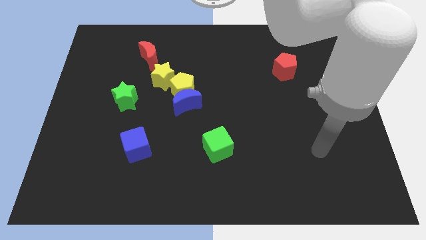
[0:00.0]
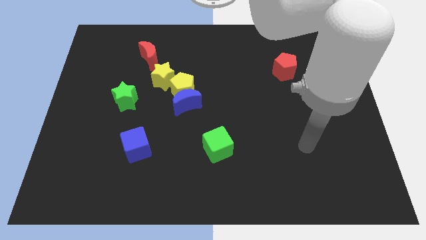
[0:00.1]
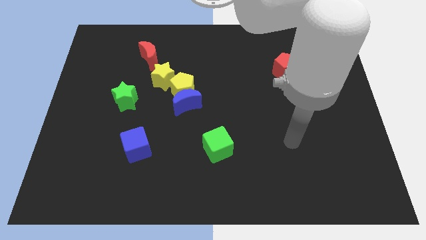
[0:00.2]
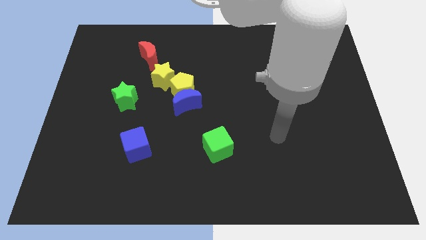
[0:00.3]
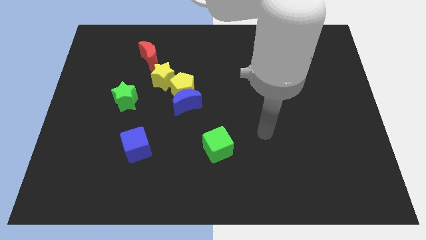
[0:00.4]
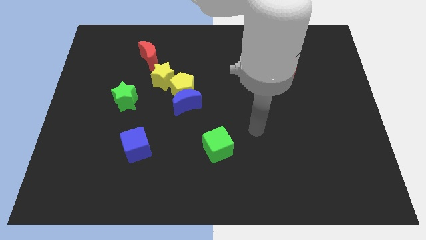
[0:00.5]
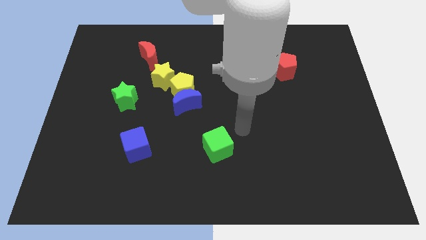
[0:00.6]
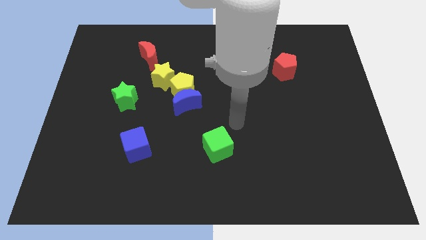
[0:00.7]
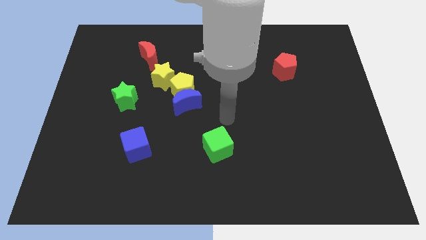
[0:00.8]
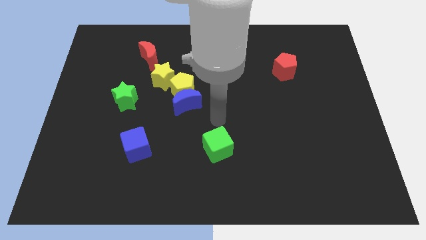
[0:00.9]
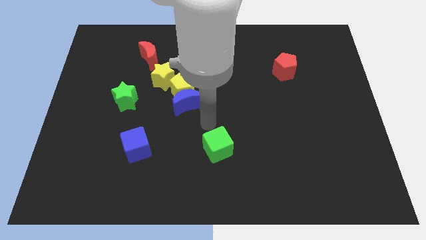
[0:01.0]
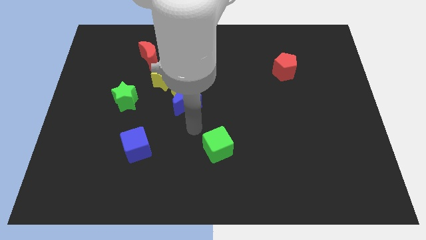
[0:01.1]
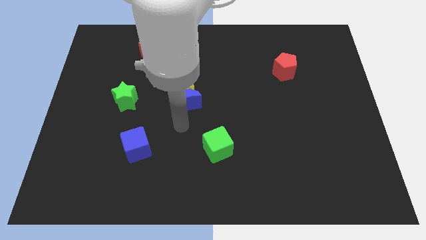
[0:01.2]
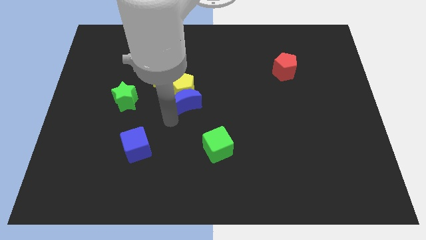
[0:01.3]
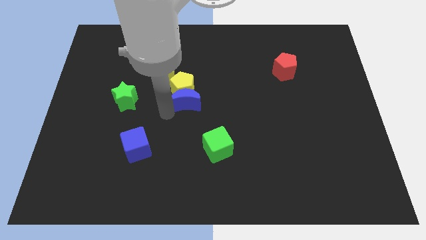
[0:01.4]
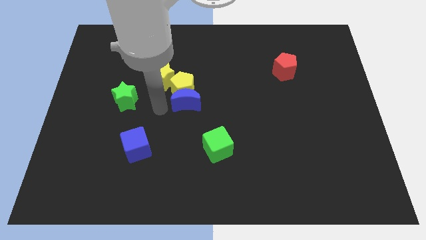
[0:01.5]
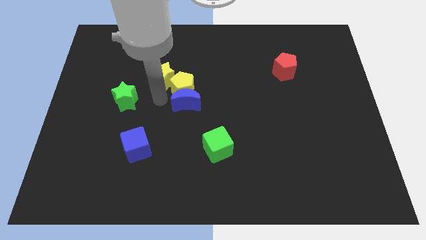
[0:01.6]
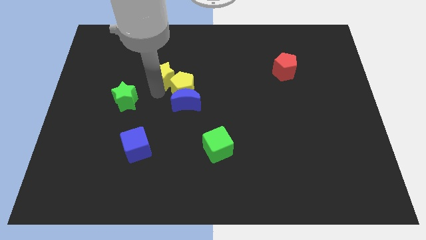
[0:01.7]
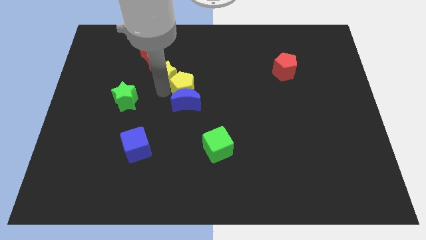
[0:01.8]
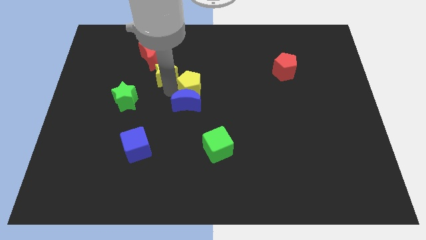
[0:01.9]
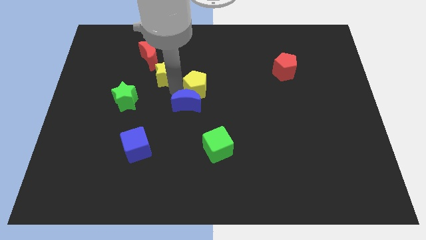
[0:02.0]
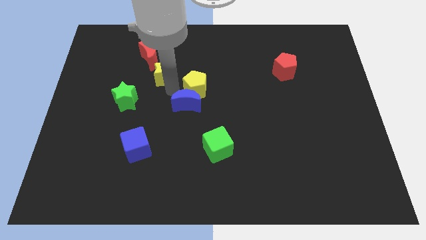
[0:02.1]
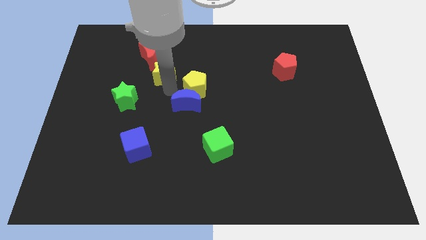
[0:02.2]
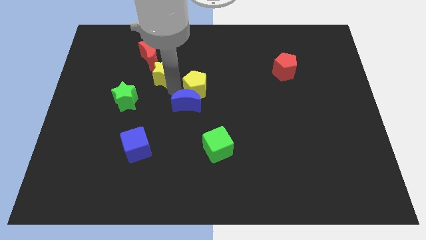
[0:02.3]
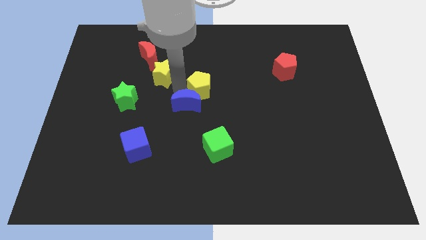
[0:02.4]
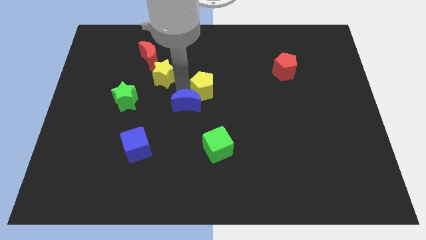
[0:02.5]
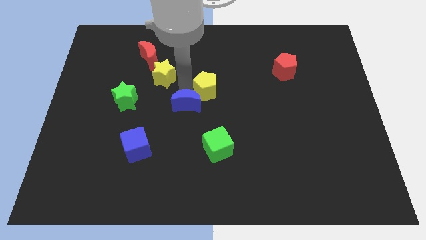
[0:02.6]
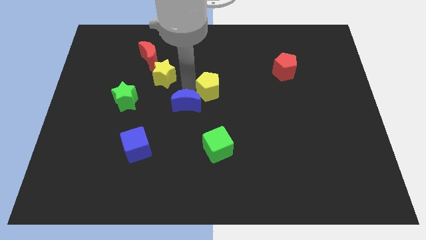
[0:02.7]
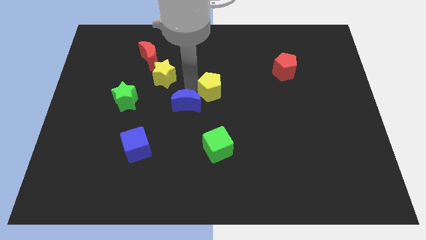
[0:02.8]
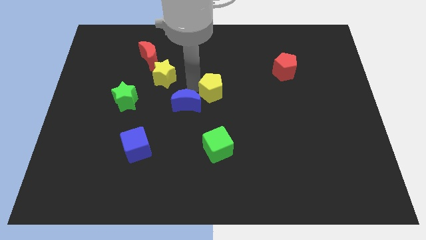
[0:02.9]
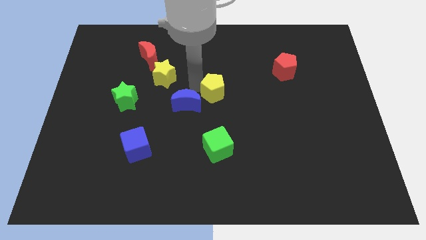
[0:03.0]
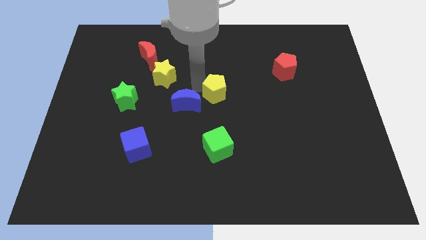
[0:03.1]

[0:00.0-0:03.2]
separate the yellow pentagon from the blue moon and yellow star

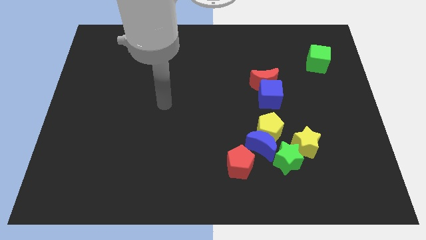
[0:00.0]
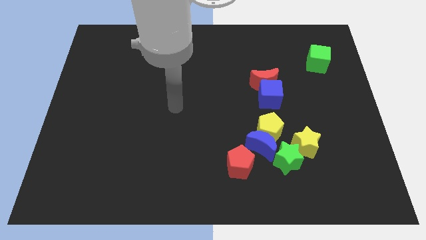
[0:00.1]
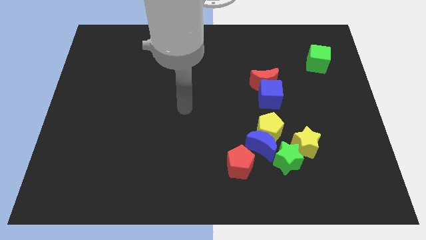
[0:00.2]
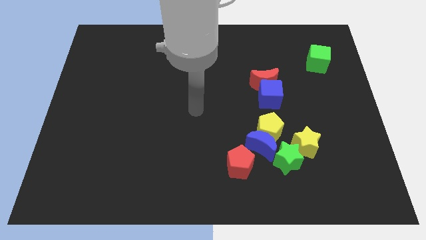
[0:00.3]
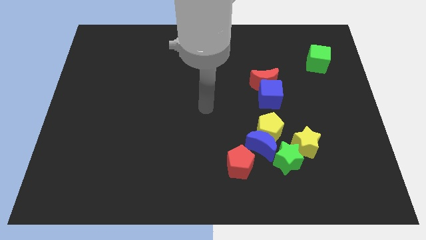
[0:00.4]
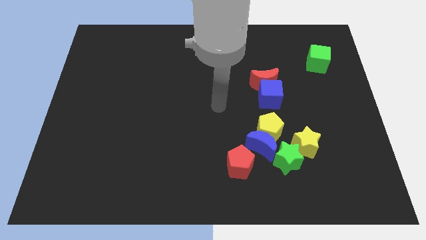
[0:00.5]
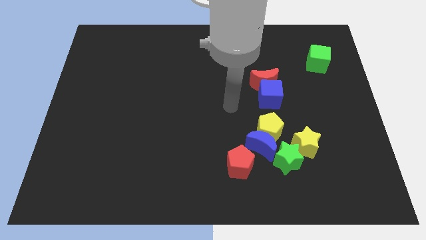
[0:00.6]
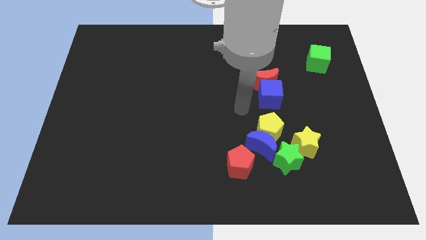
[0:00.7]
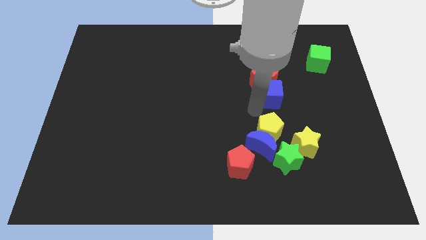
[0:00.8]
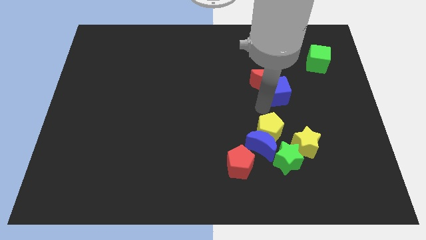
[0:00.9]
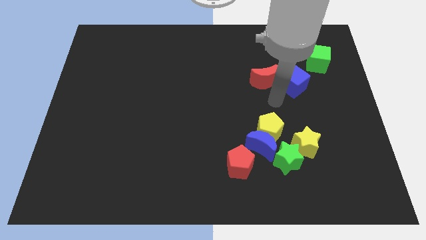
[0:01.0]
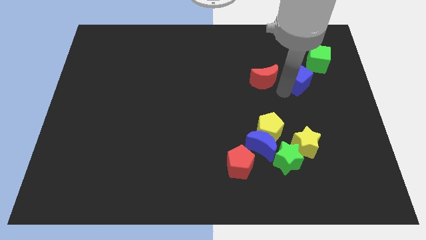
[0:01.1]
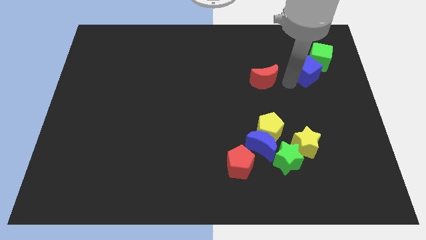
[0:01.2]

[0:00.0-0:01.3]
pull the red moon apart from the blue cube

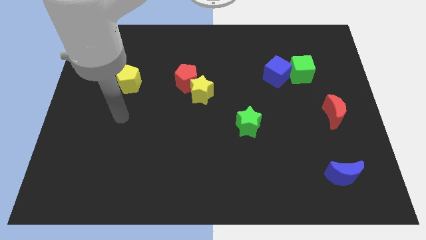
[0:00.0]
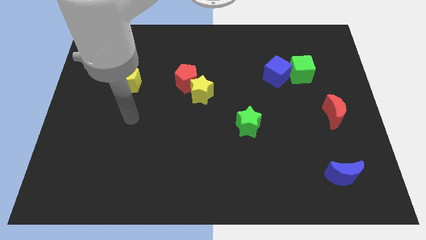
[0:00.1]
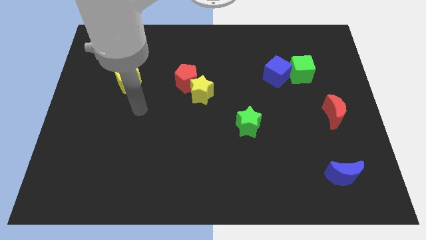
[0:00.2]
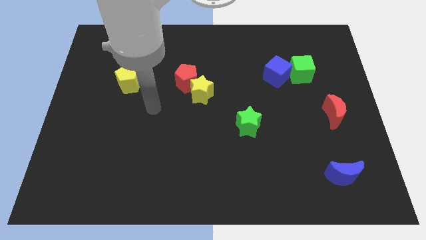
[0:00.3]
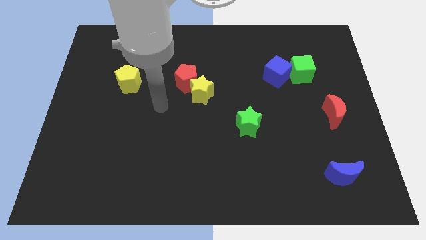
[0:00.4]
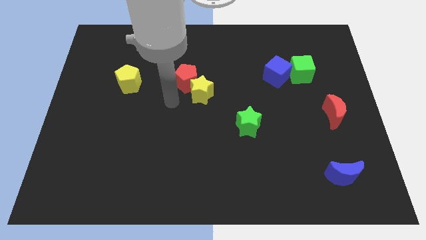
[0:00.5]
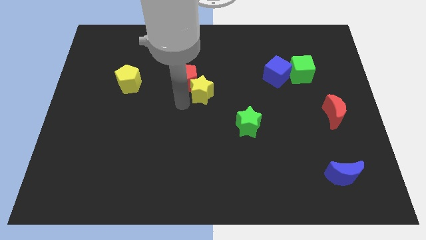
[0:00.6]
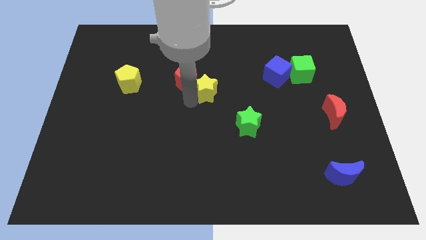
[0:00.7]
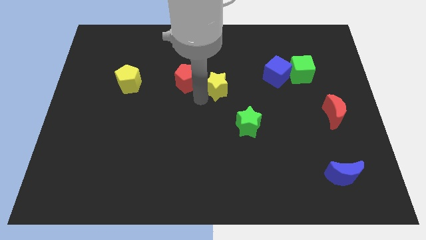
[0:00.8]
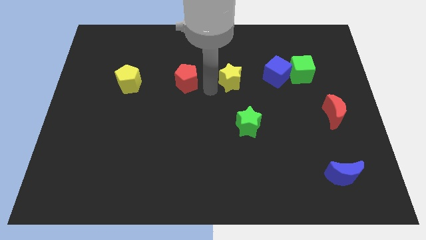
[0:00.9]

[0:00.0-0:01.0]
pull the red pentagon apart from the yellow star

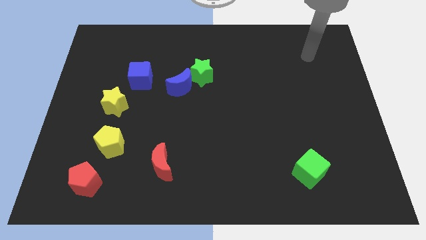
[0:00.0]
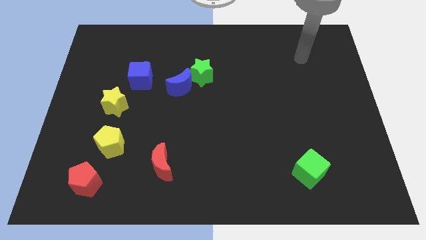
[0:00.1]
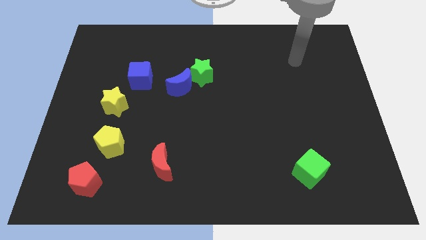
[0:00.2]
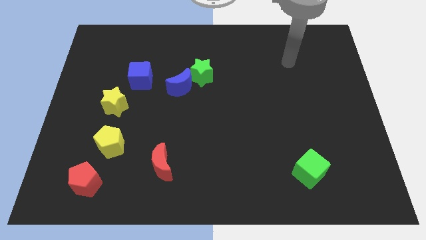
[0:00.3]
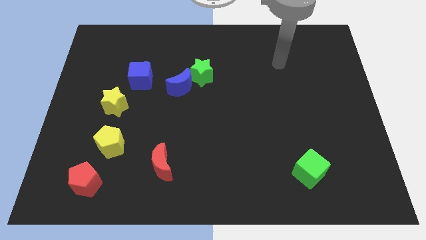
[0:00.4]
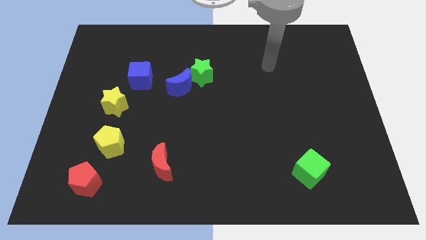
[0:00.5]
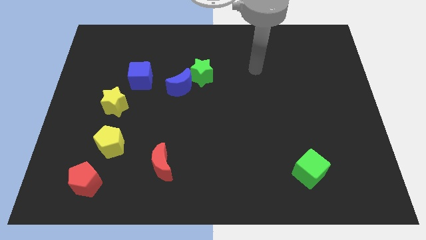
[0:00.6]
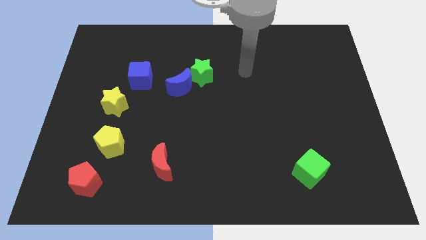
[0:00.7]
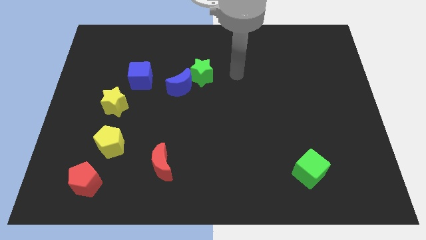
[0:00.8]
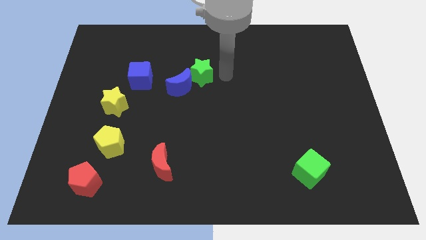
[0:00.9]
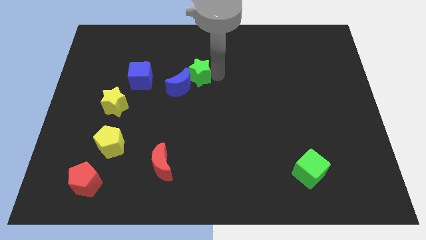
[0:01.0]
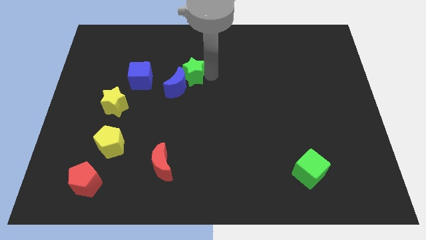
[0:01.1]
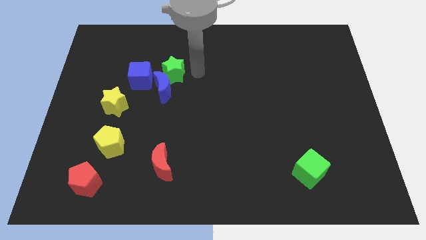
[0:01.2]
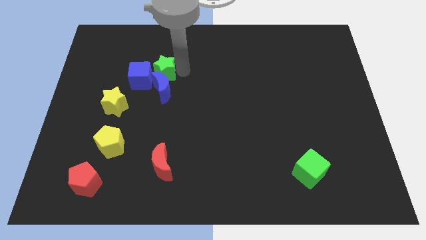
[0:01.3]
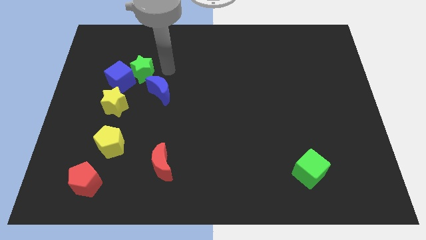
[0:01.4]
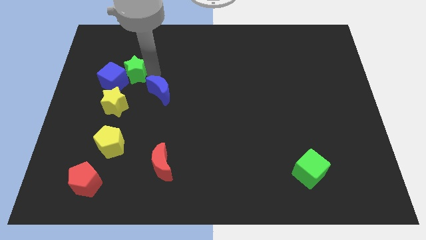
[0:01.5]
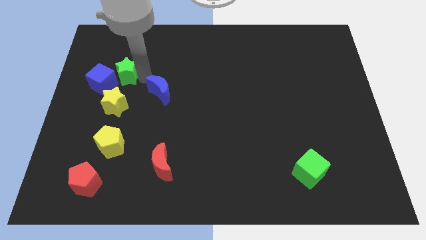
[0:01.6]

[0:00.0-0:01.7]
move the blue moon away from the green star

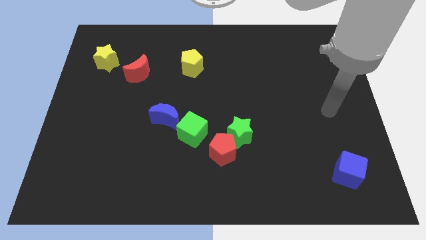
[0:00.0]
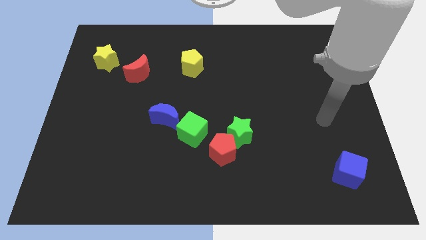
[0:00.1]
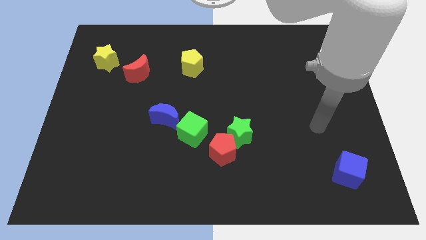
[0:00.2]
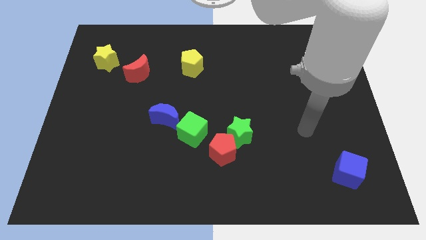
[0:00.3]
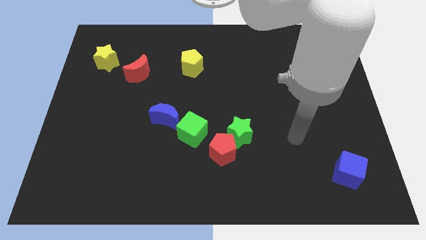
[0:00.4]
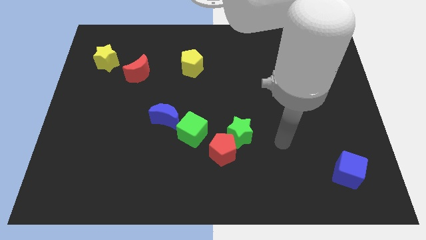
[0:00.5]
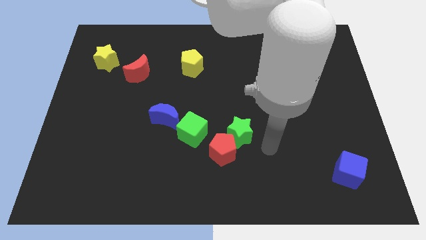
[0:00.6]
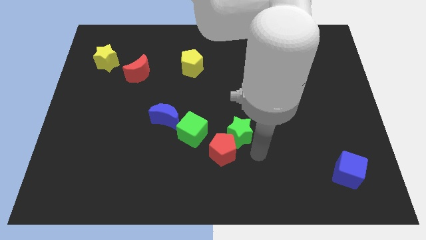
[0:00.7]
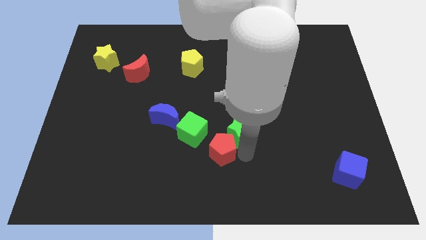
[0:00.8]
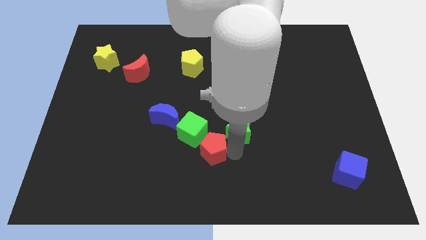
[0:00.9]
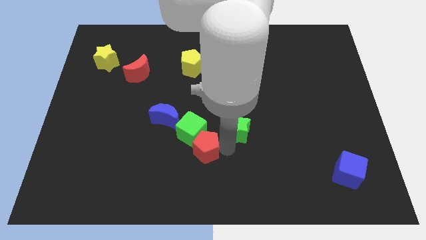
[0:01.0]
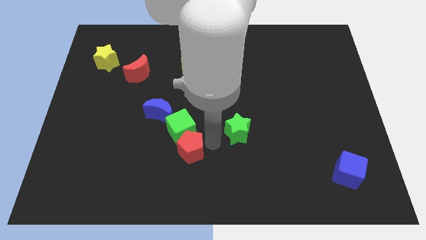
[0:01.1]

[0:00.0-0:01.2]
separate the green star from the red pentagon

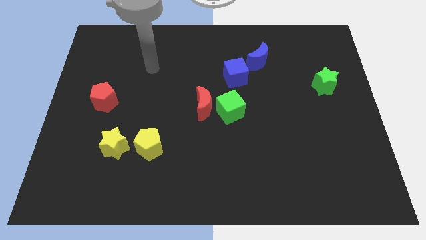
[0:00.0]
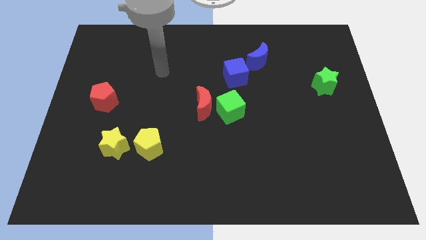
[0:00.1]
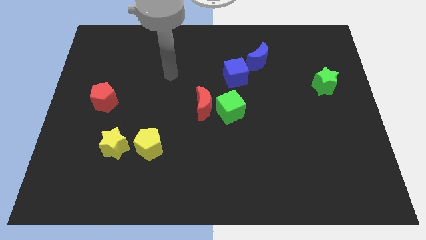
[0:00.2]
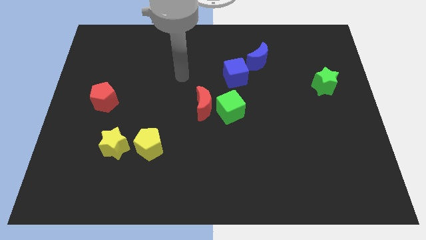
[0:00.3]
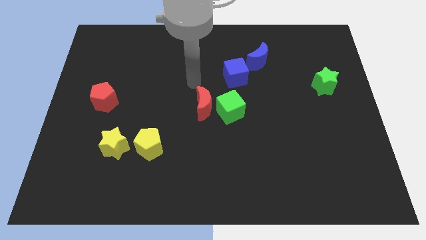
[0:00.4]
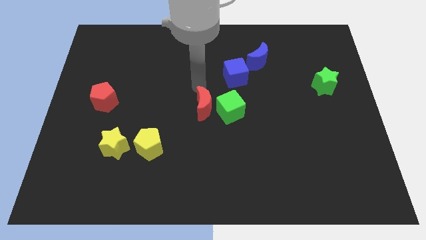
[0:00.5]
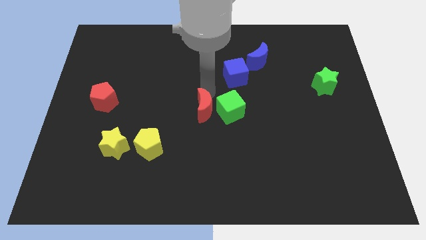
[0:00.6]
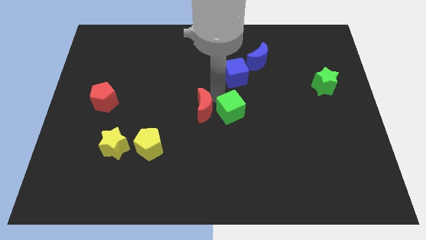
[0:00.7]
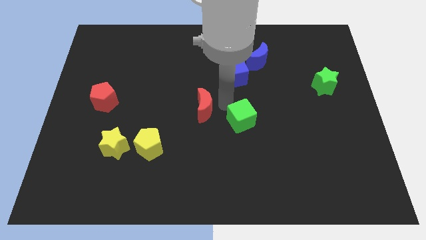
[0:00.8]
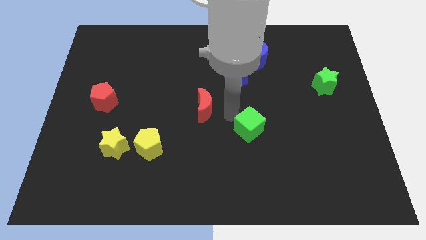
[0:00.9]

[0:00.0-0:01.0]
pull the red moon apart from the green cube
